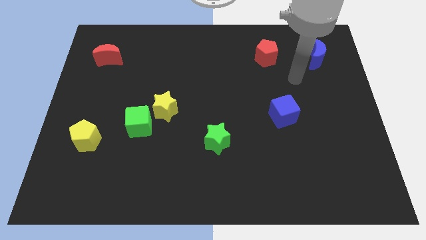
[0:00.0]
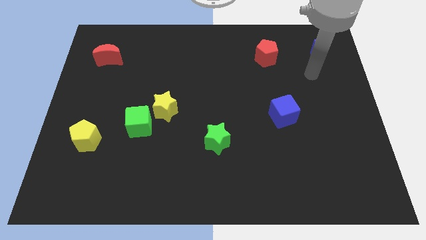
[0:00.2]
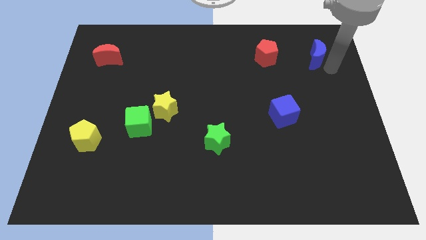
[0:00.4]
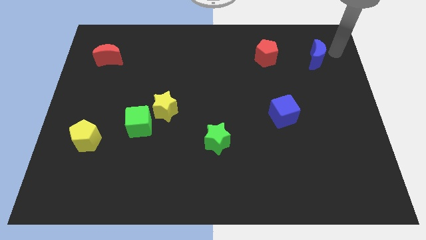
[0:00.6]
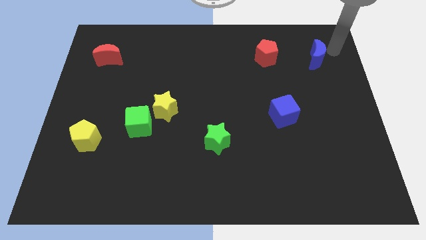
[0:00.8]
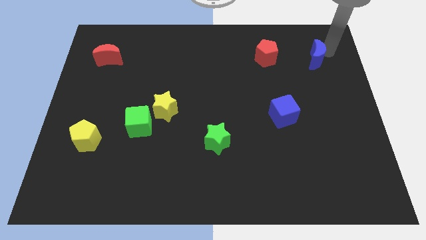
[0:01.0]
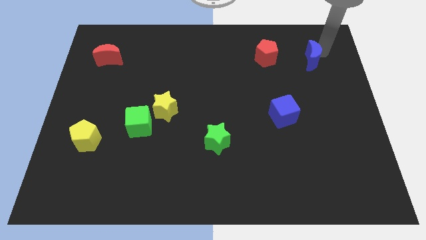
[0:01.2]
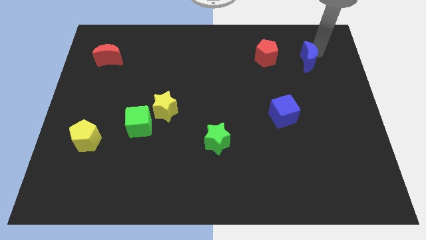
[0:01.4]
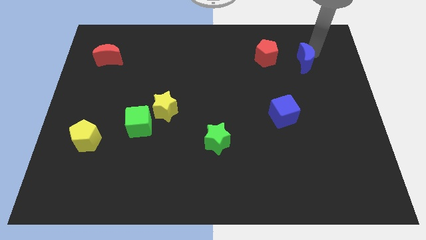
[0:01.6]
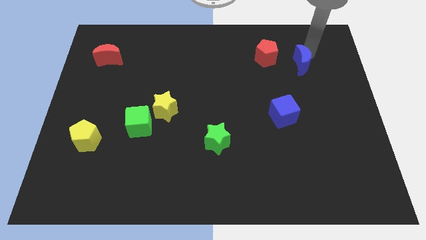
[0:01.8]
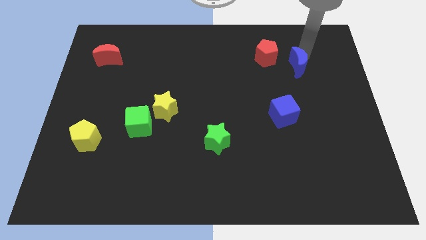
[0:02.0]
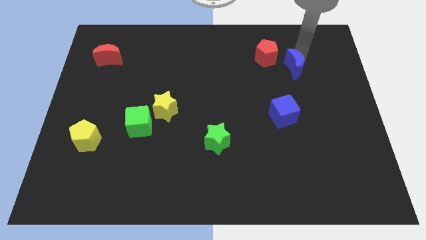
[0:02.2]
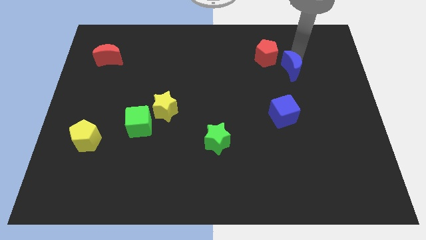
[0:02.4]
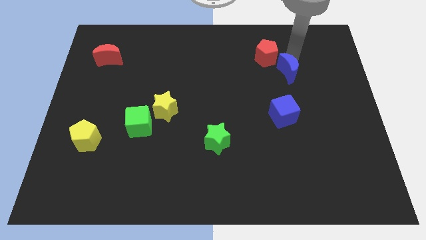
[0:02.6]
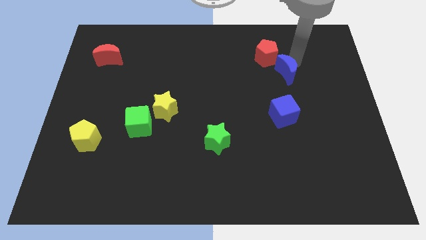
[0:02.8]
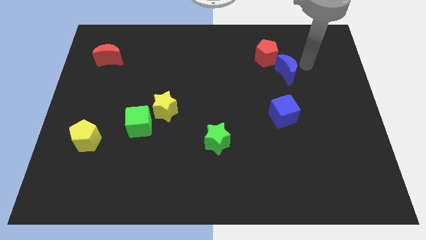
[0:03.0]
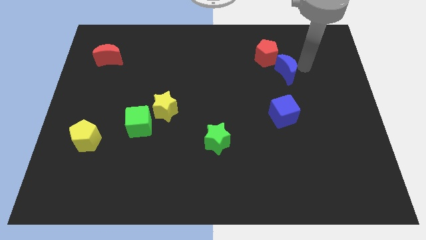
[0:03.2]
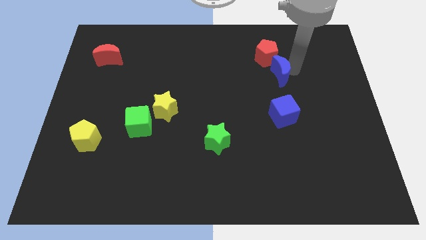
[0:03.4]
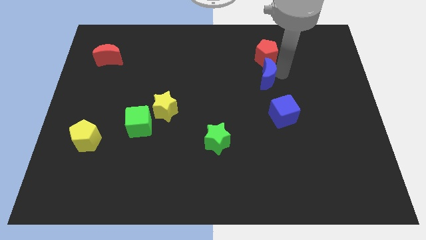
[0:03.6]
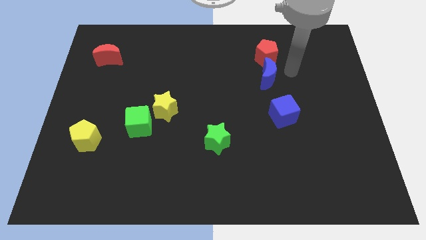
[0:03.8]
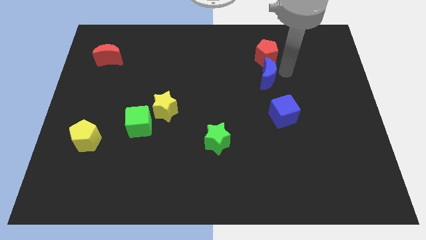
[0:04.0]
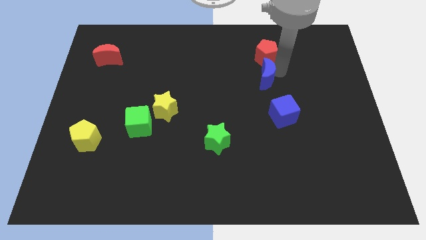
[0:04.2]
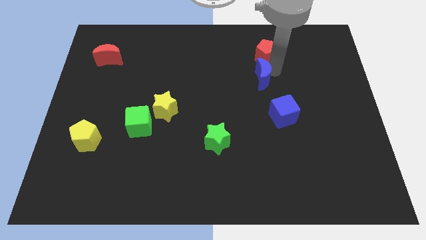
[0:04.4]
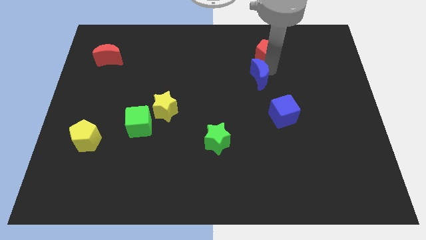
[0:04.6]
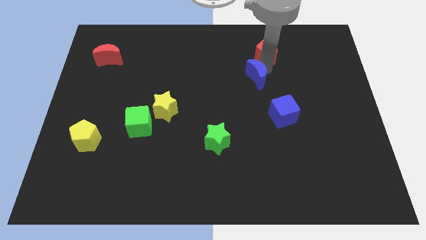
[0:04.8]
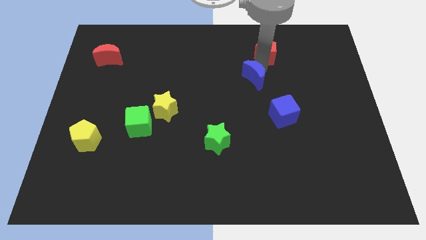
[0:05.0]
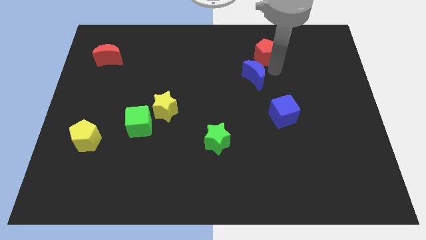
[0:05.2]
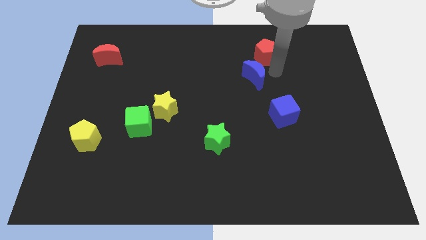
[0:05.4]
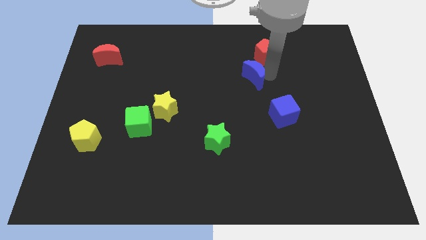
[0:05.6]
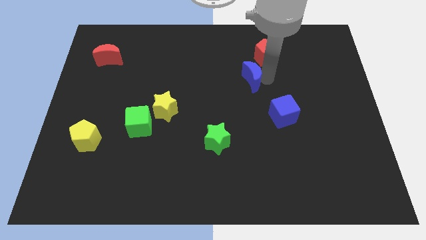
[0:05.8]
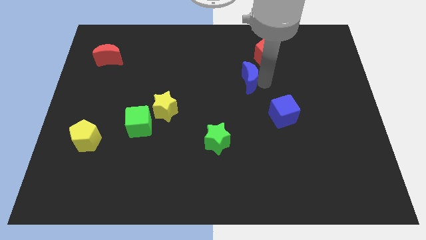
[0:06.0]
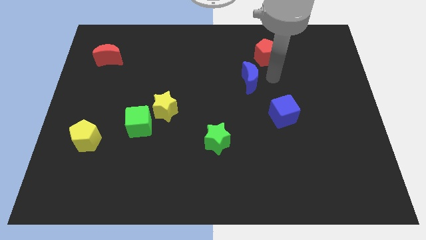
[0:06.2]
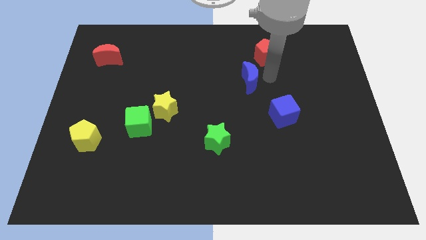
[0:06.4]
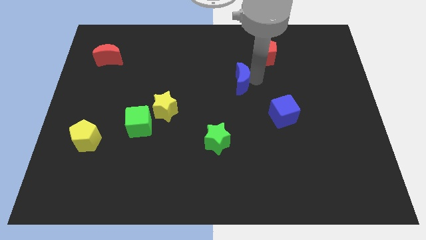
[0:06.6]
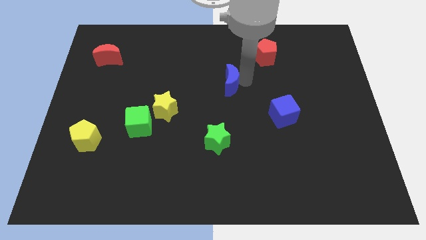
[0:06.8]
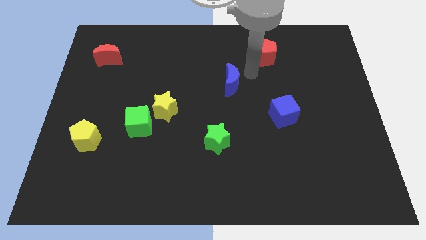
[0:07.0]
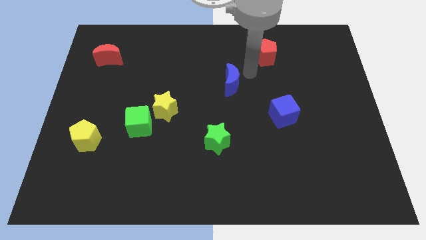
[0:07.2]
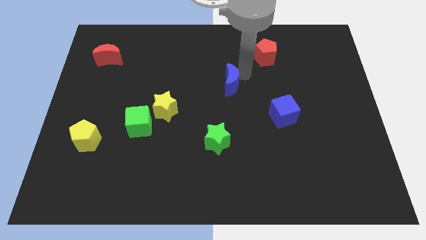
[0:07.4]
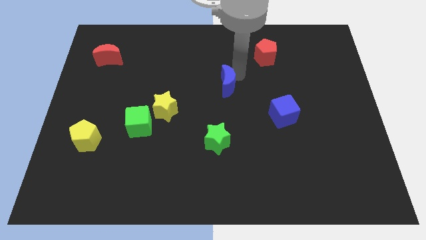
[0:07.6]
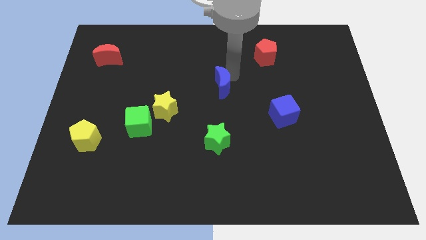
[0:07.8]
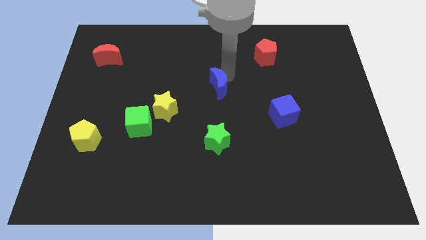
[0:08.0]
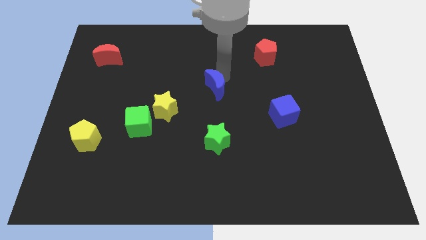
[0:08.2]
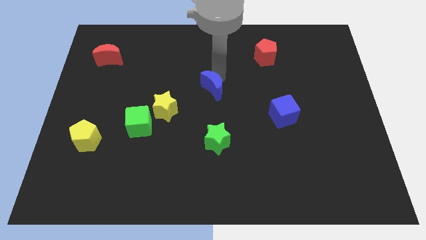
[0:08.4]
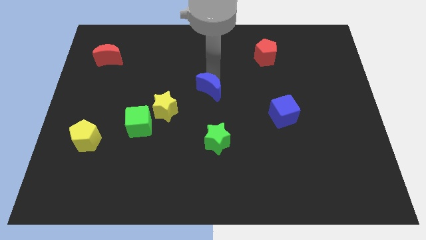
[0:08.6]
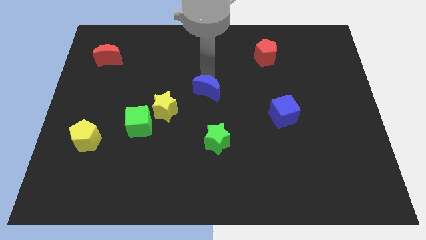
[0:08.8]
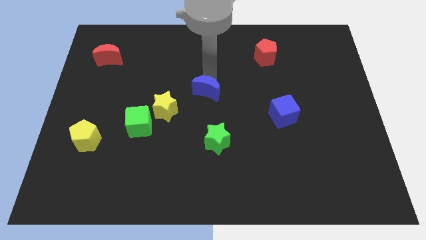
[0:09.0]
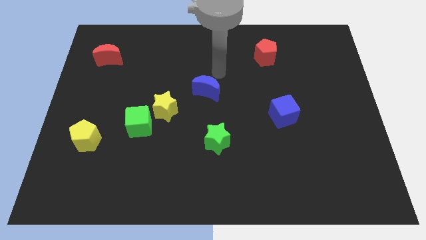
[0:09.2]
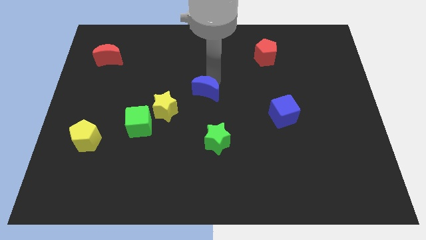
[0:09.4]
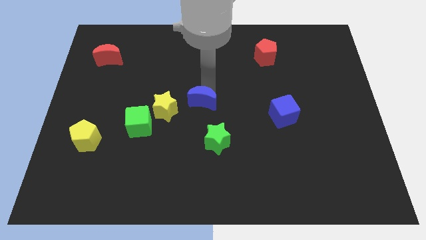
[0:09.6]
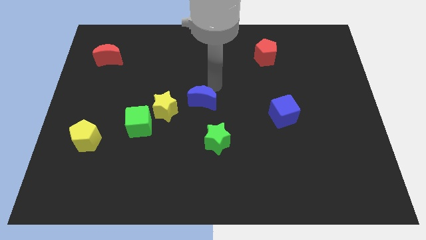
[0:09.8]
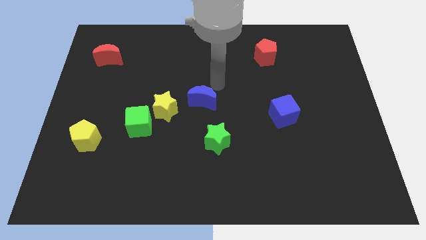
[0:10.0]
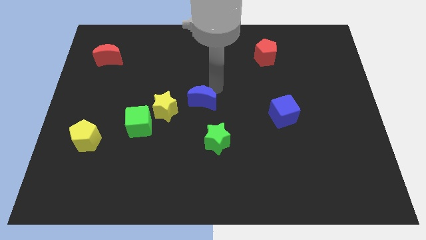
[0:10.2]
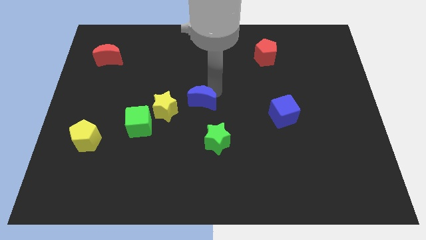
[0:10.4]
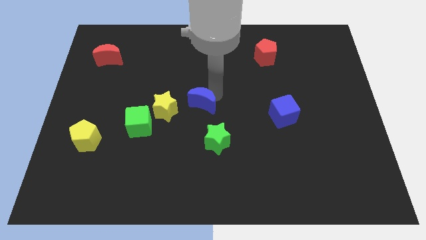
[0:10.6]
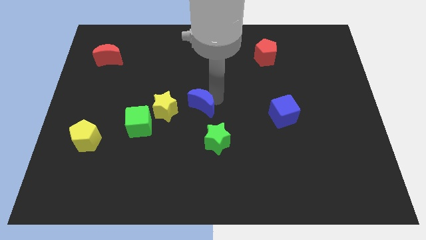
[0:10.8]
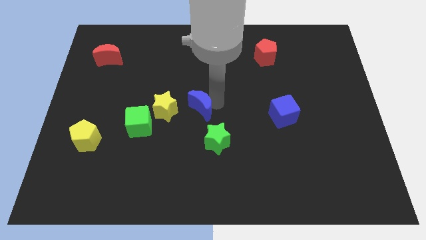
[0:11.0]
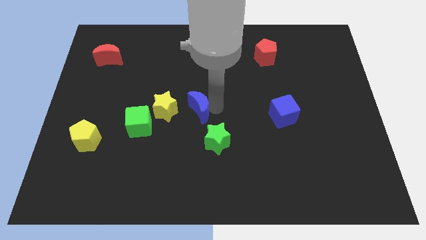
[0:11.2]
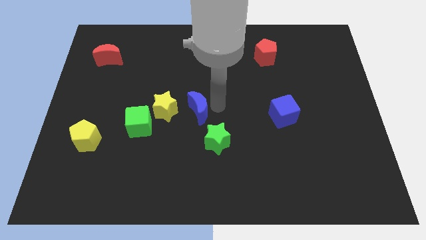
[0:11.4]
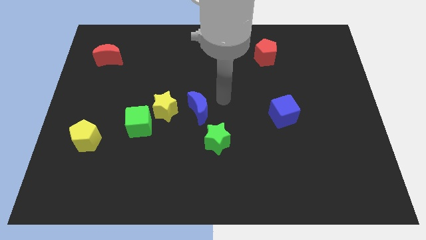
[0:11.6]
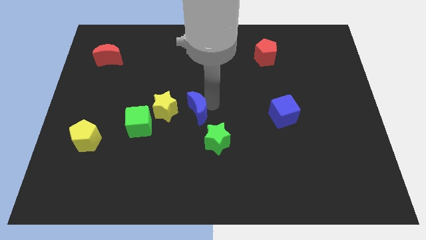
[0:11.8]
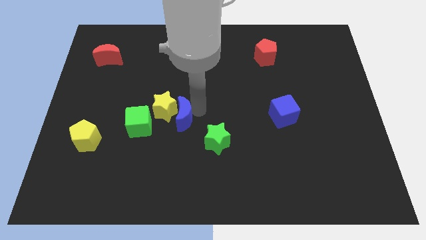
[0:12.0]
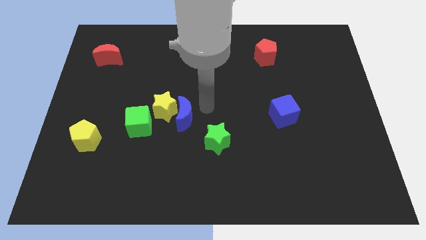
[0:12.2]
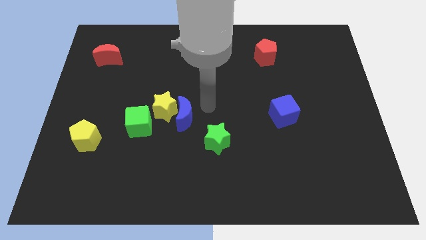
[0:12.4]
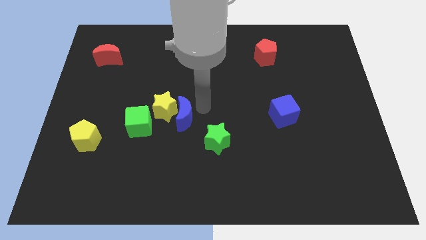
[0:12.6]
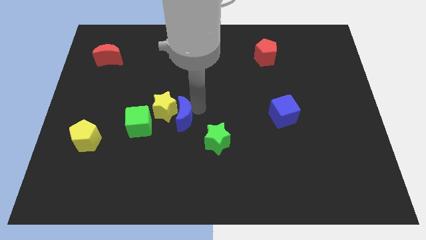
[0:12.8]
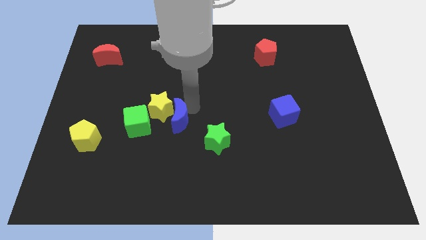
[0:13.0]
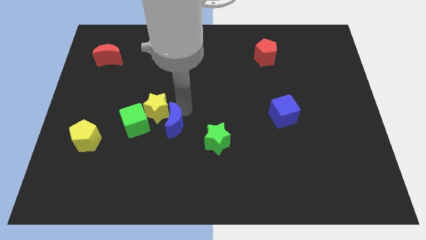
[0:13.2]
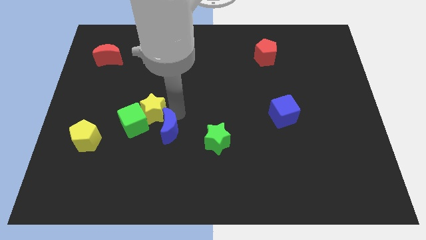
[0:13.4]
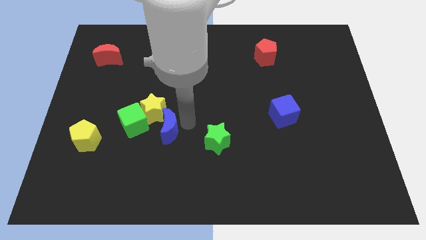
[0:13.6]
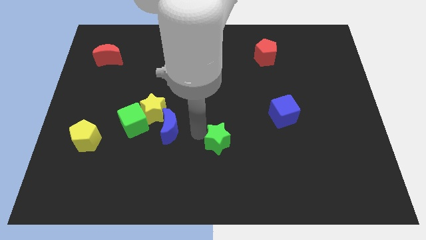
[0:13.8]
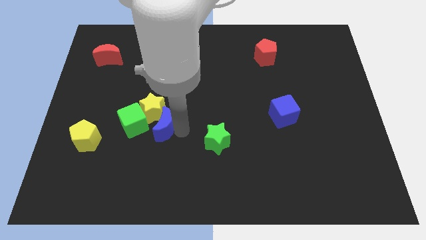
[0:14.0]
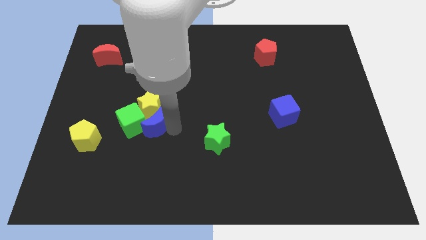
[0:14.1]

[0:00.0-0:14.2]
slide the blue moon to the green cube
